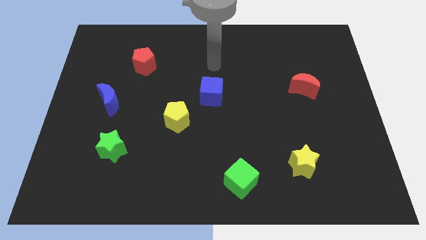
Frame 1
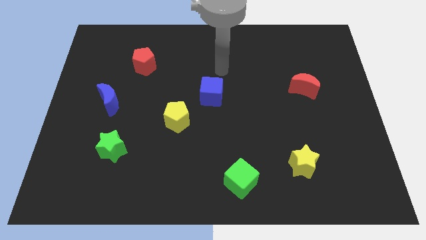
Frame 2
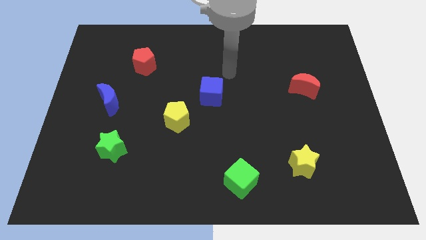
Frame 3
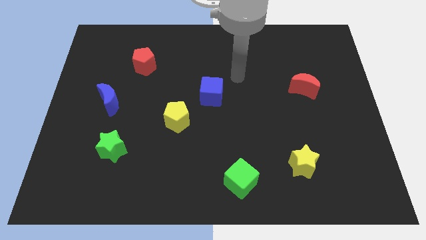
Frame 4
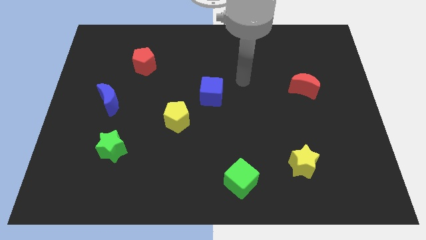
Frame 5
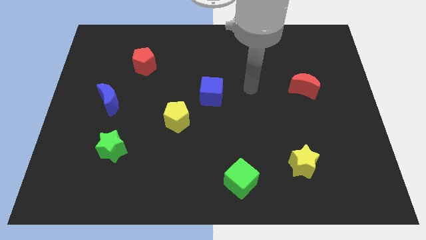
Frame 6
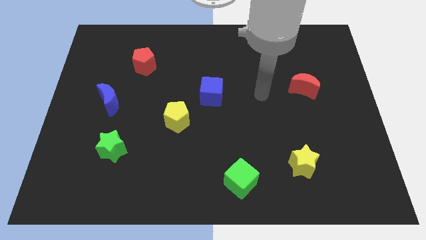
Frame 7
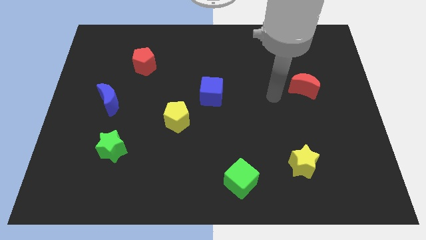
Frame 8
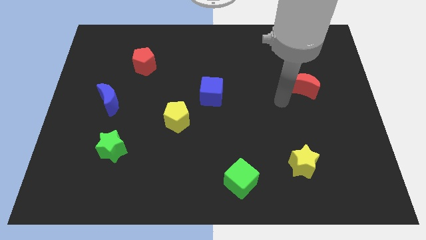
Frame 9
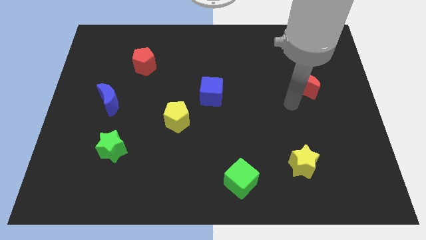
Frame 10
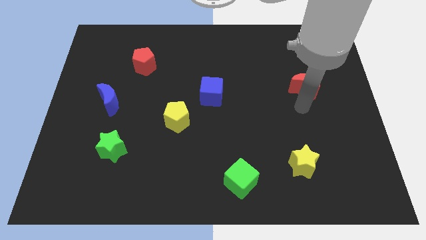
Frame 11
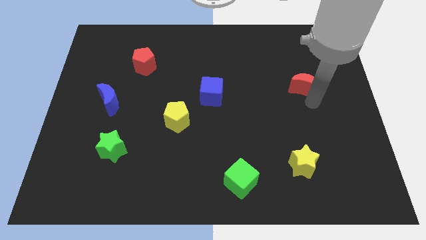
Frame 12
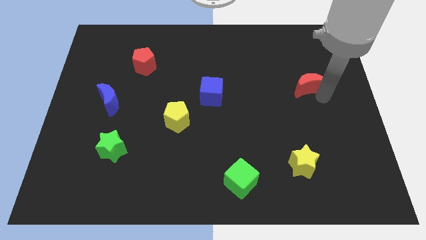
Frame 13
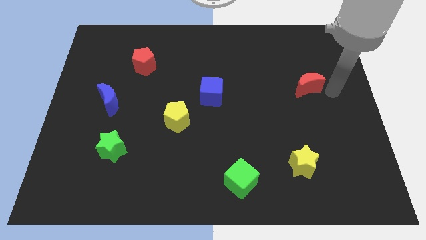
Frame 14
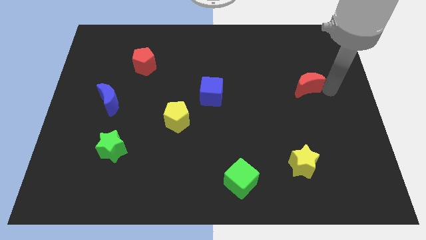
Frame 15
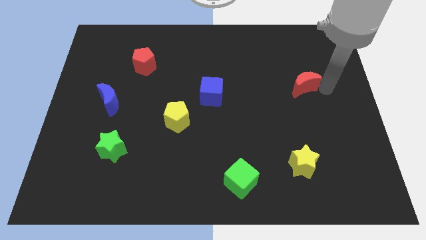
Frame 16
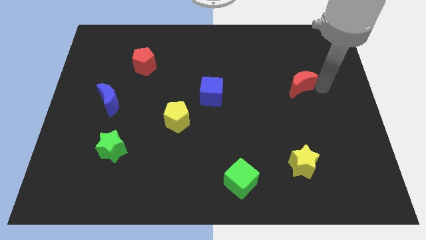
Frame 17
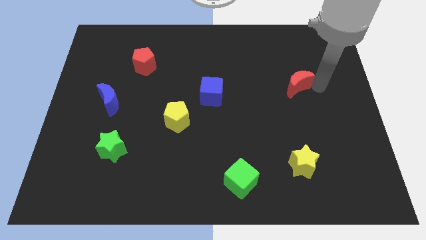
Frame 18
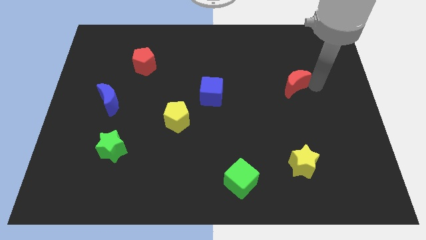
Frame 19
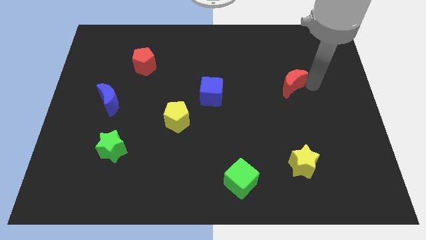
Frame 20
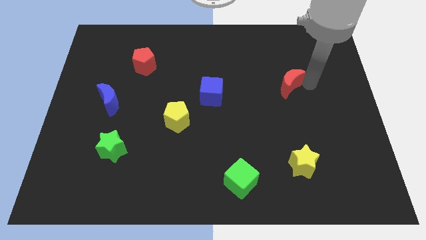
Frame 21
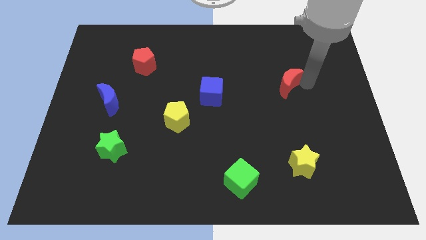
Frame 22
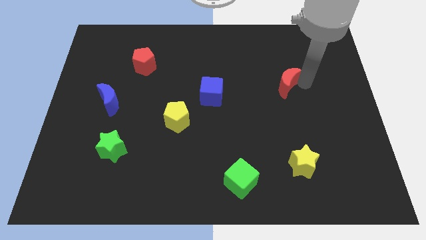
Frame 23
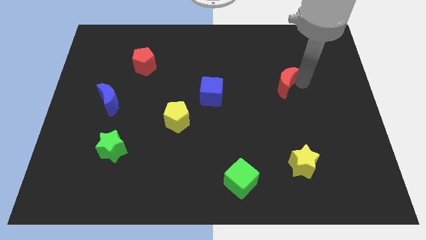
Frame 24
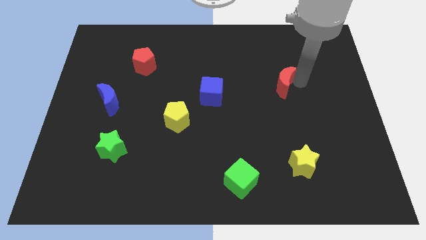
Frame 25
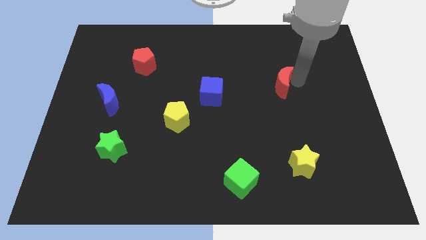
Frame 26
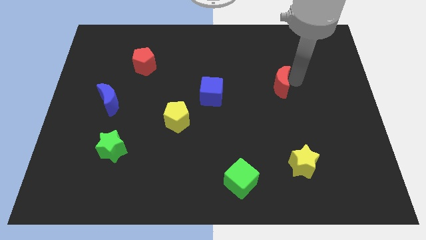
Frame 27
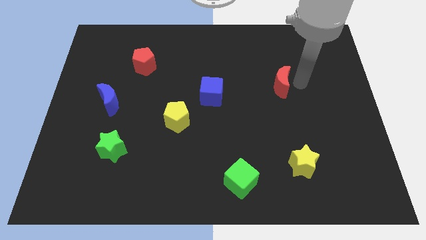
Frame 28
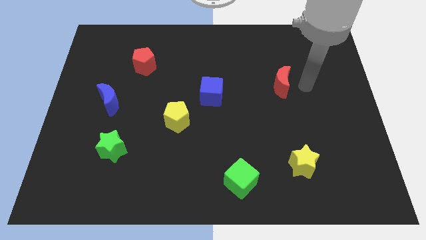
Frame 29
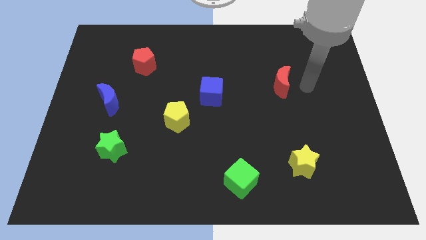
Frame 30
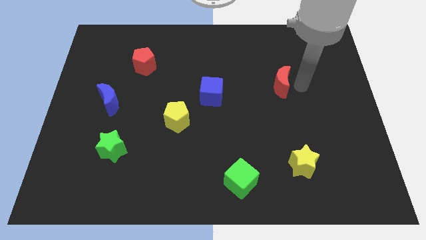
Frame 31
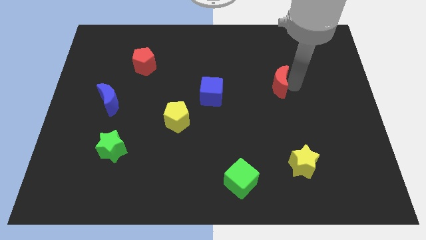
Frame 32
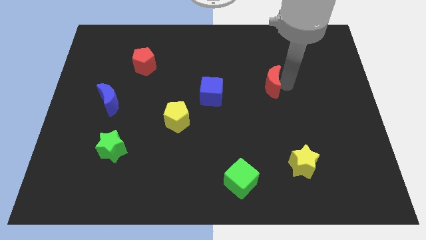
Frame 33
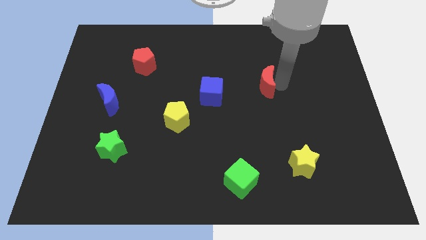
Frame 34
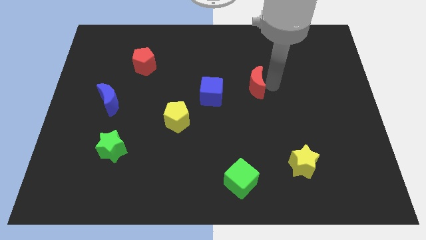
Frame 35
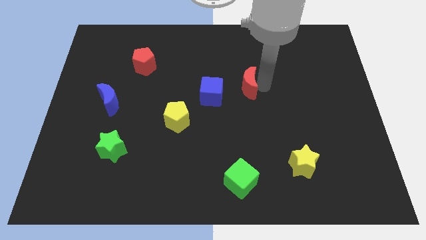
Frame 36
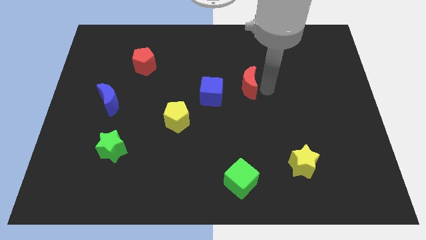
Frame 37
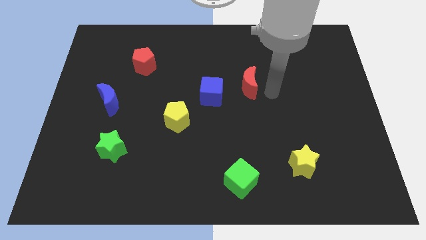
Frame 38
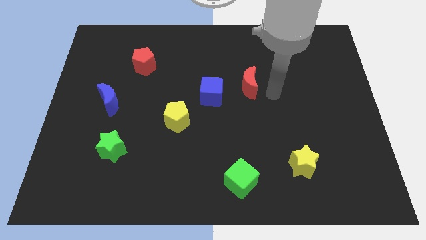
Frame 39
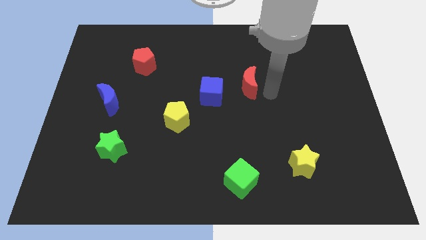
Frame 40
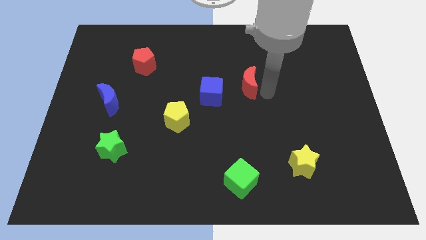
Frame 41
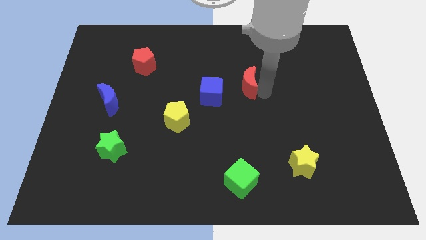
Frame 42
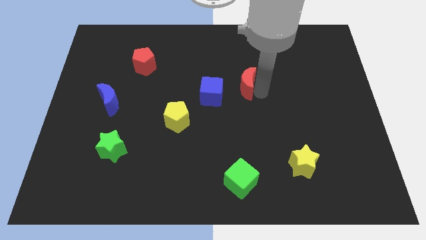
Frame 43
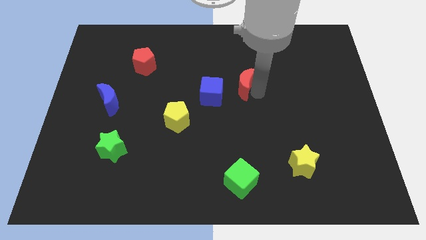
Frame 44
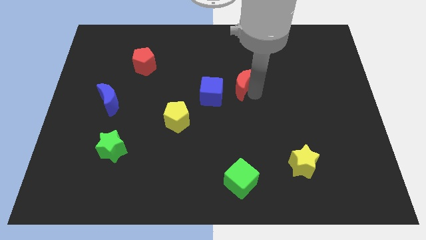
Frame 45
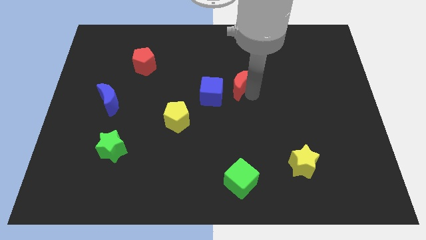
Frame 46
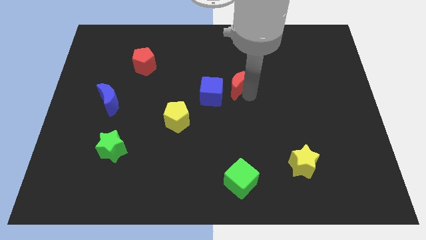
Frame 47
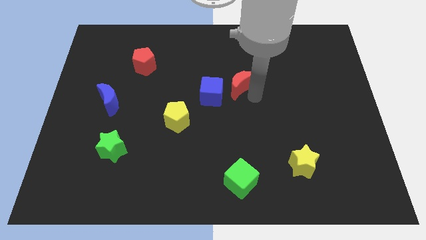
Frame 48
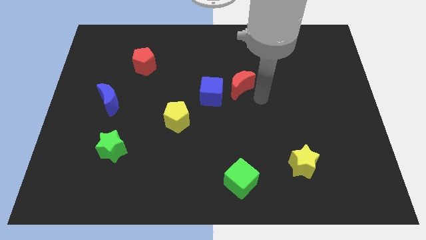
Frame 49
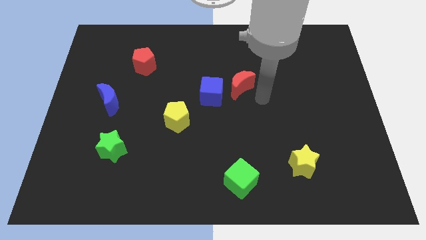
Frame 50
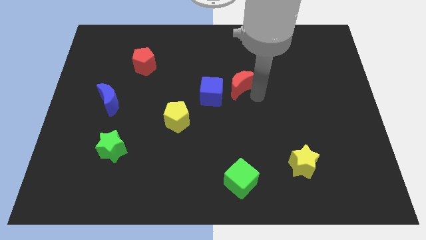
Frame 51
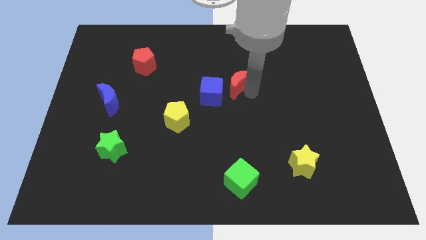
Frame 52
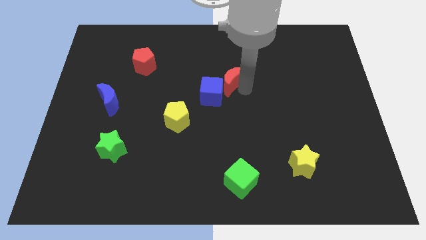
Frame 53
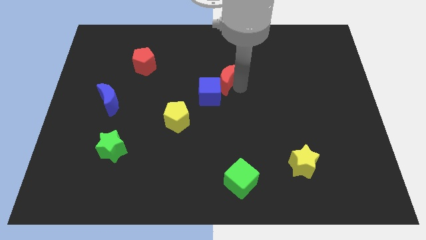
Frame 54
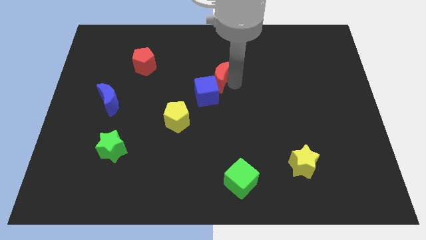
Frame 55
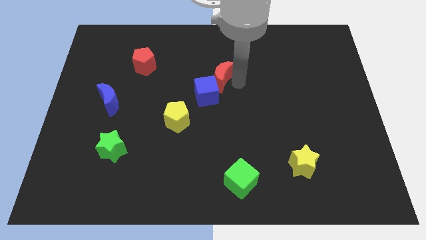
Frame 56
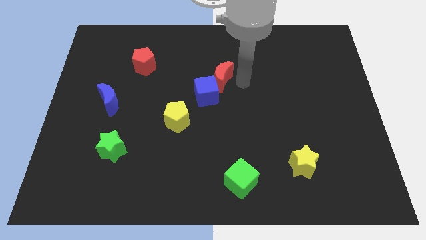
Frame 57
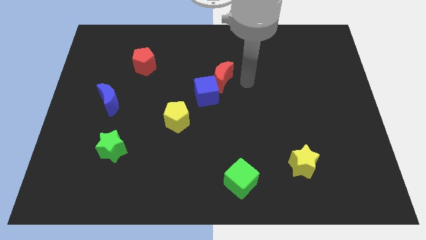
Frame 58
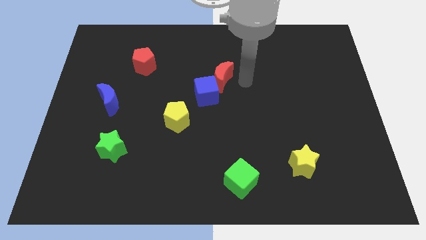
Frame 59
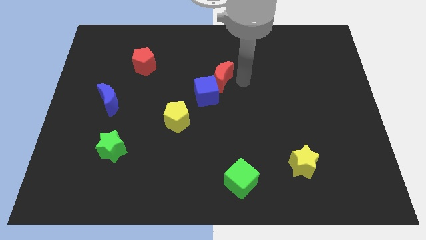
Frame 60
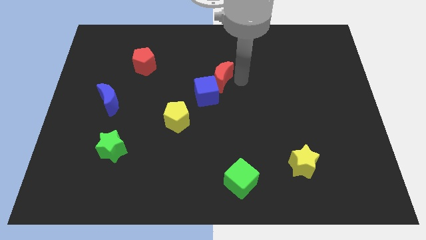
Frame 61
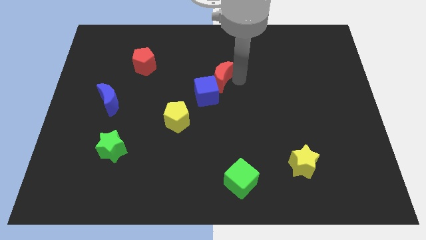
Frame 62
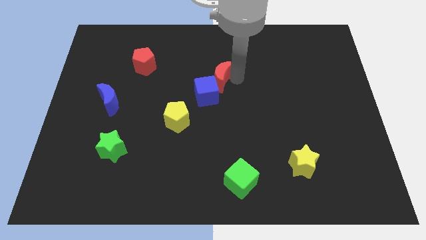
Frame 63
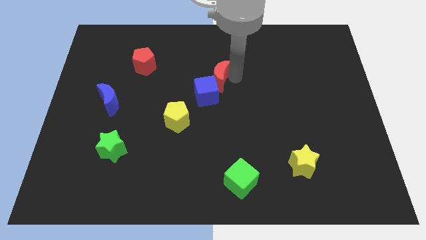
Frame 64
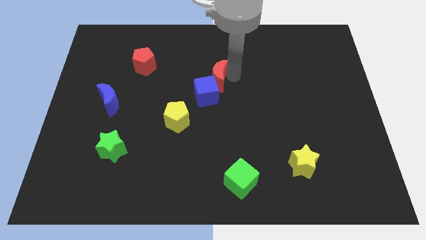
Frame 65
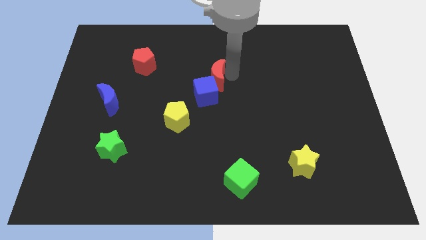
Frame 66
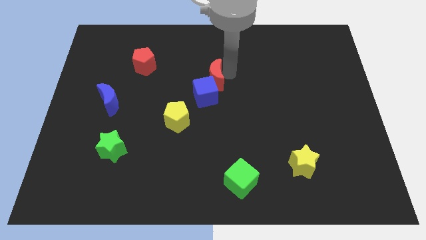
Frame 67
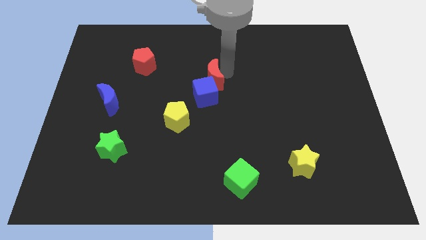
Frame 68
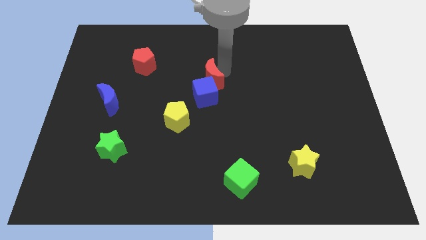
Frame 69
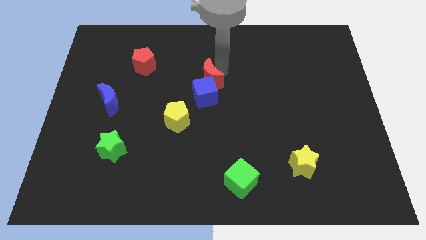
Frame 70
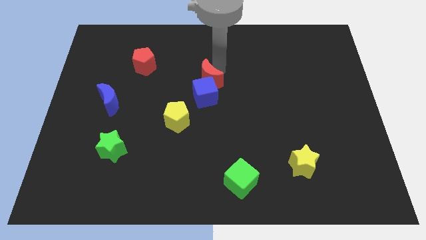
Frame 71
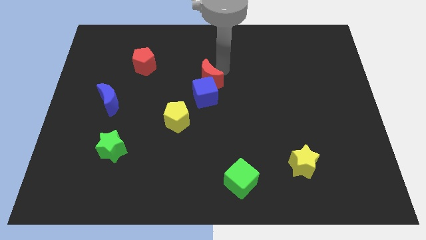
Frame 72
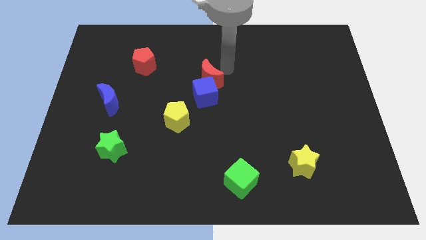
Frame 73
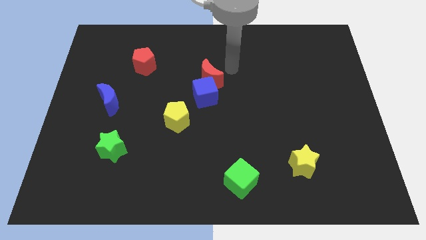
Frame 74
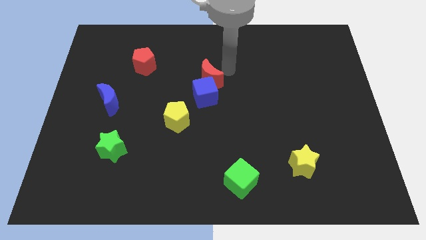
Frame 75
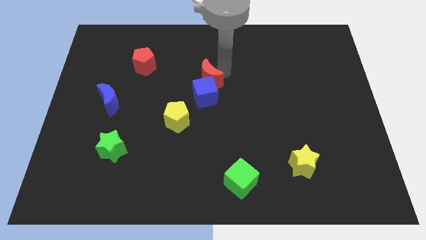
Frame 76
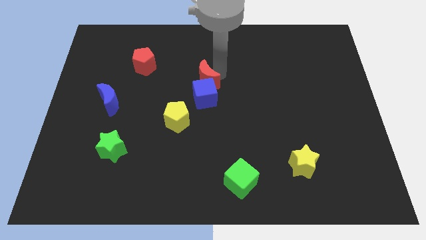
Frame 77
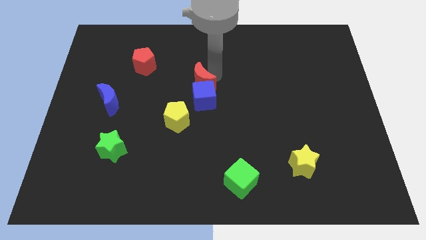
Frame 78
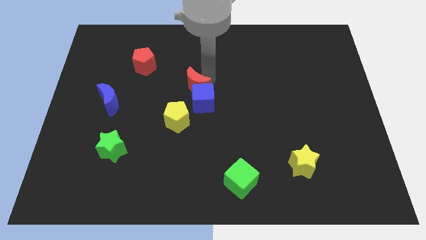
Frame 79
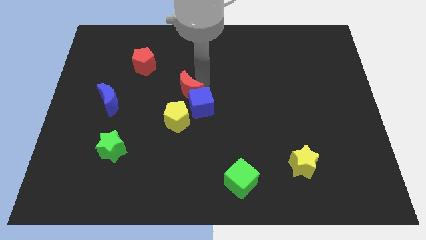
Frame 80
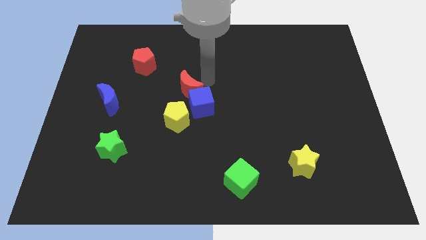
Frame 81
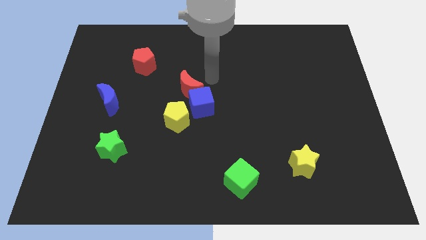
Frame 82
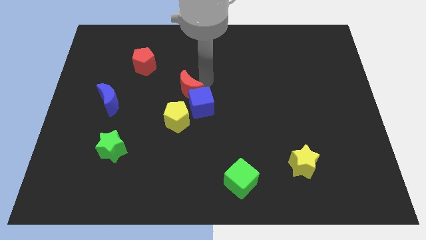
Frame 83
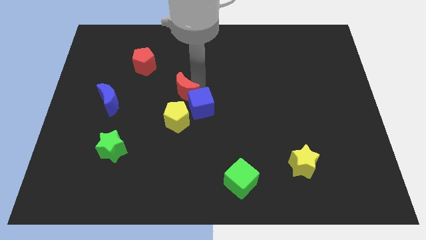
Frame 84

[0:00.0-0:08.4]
move the red moon left of the blue cube
